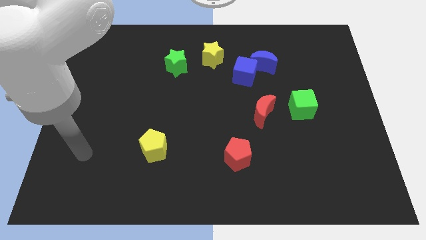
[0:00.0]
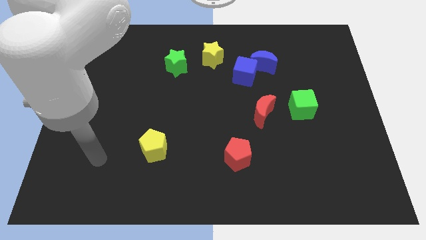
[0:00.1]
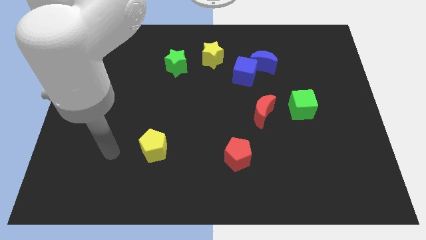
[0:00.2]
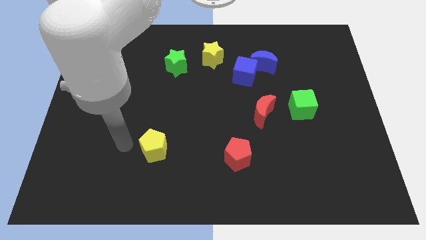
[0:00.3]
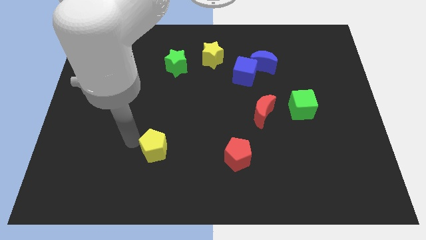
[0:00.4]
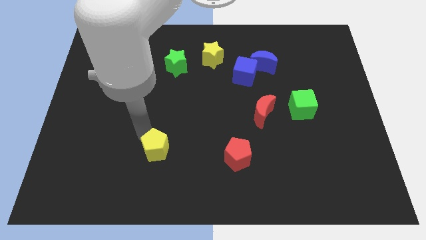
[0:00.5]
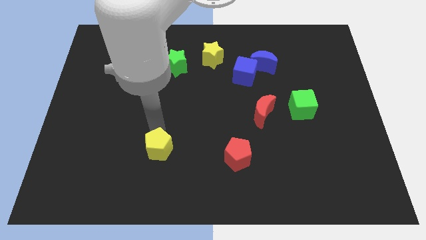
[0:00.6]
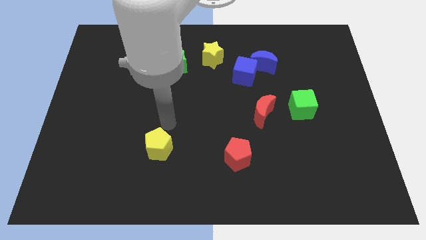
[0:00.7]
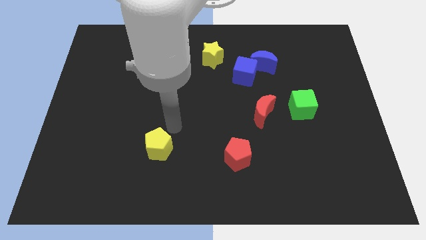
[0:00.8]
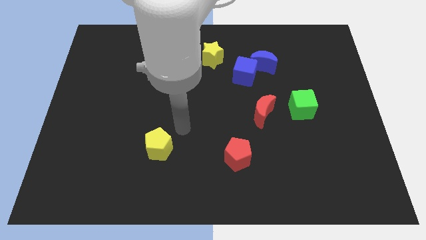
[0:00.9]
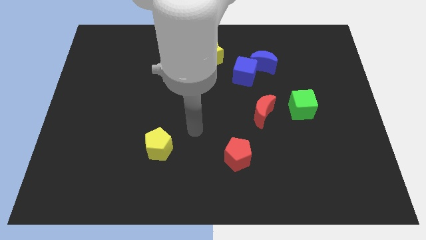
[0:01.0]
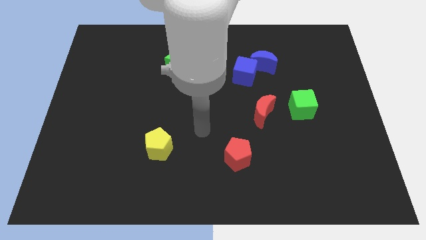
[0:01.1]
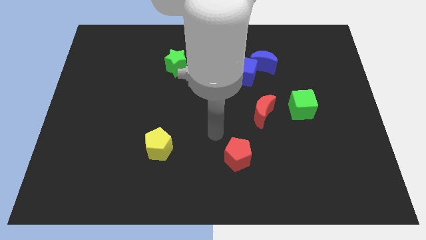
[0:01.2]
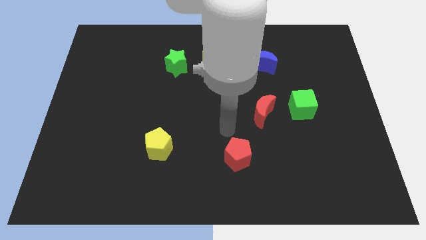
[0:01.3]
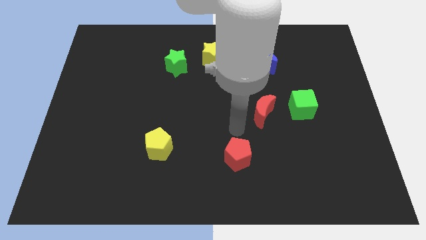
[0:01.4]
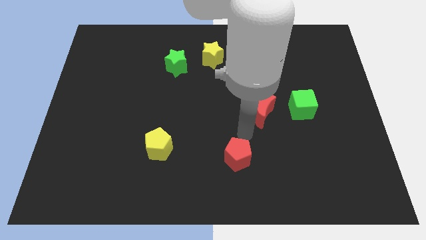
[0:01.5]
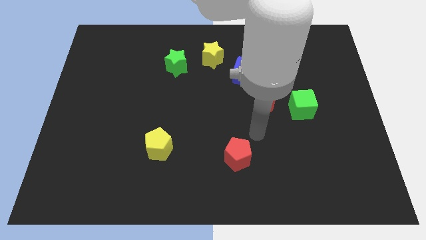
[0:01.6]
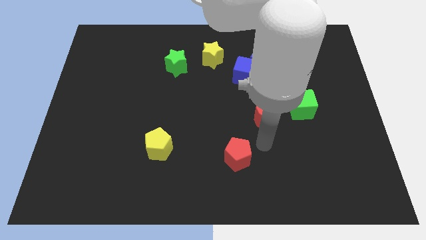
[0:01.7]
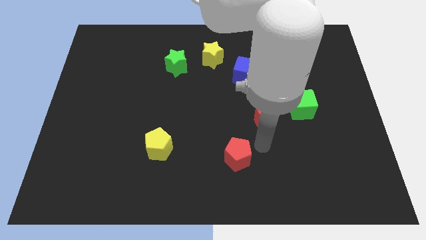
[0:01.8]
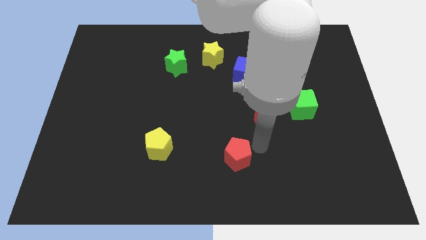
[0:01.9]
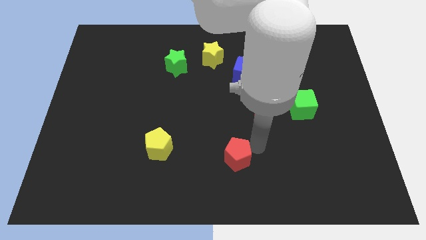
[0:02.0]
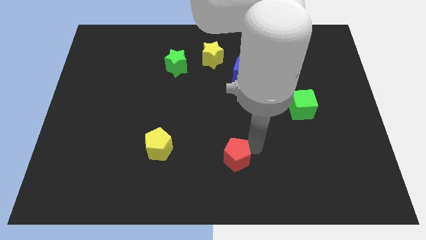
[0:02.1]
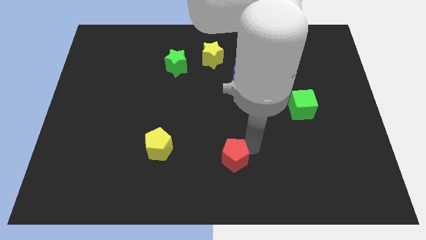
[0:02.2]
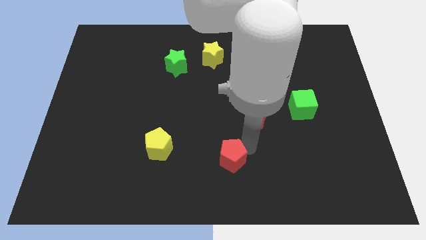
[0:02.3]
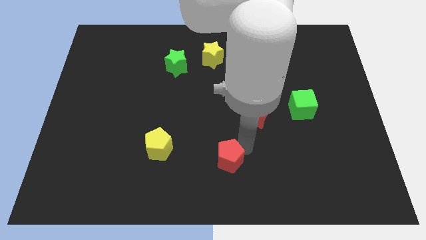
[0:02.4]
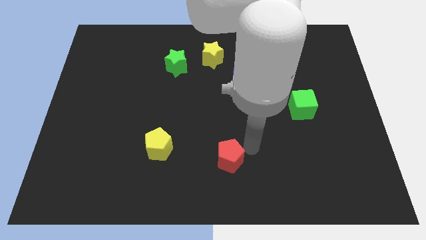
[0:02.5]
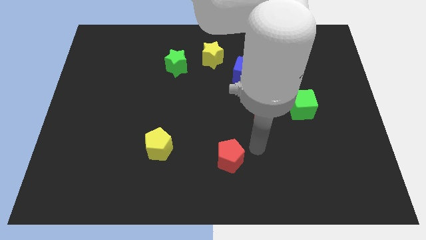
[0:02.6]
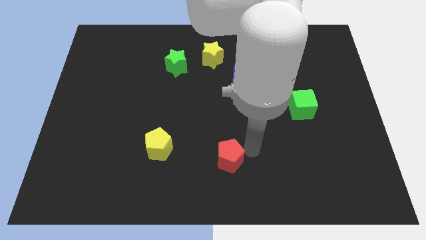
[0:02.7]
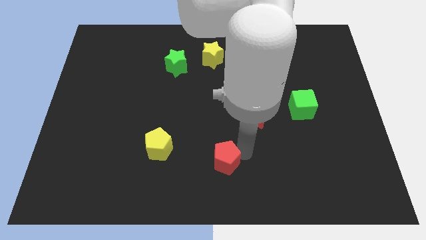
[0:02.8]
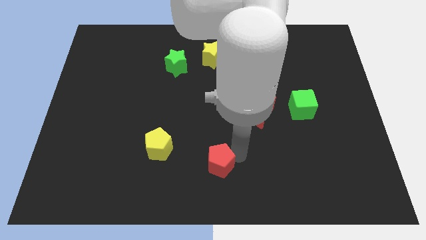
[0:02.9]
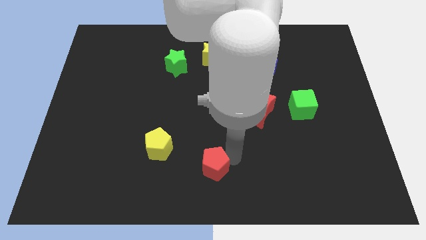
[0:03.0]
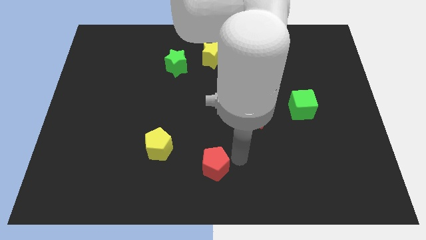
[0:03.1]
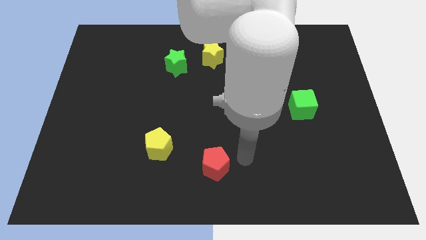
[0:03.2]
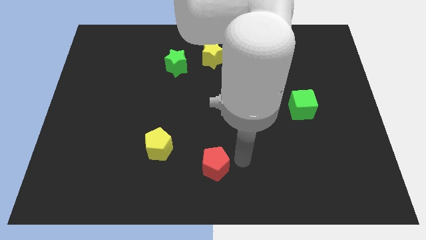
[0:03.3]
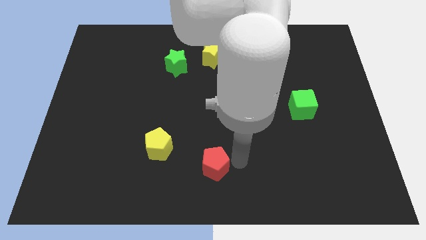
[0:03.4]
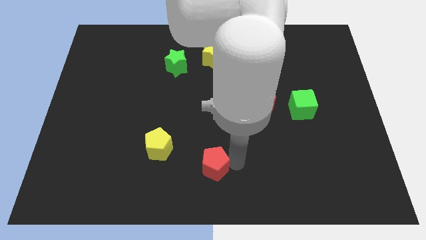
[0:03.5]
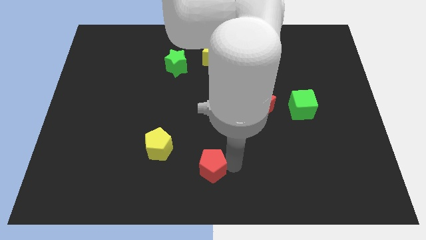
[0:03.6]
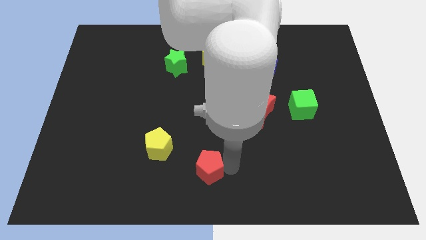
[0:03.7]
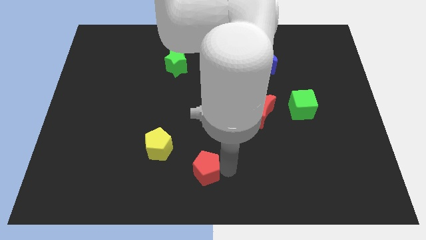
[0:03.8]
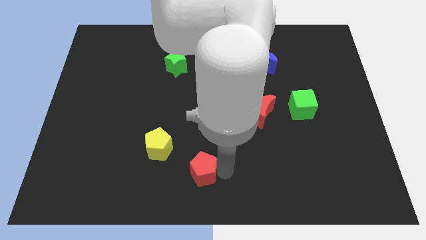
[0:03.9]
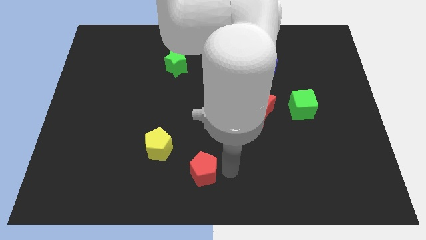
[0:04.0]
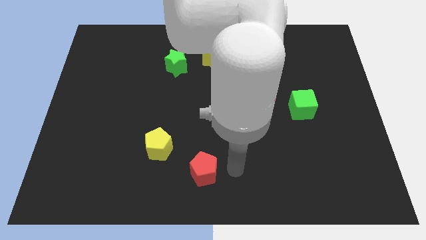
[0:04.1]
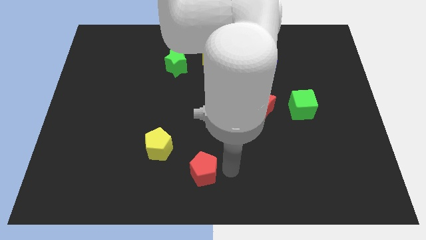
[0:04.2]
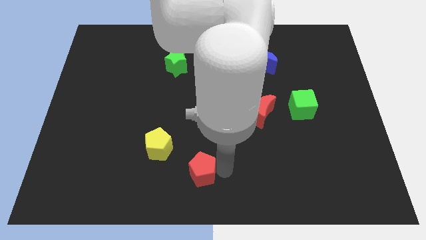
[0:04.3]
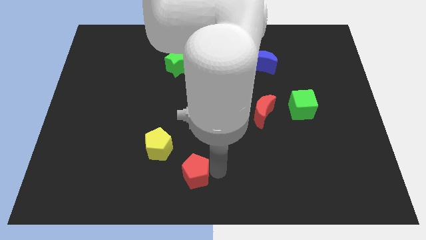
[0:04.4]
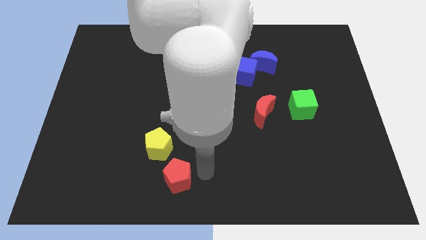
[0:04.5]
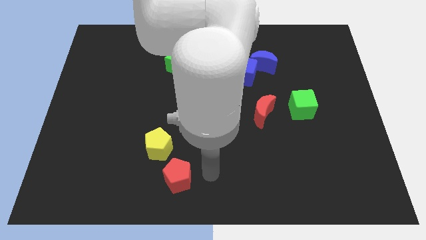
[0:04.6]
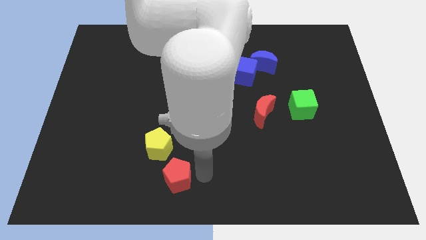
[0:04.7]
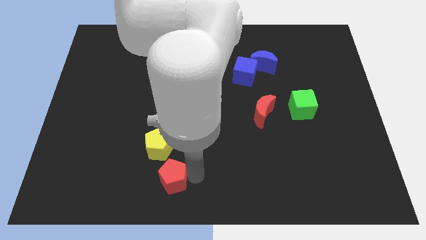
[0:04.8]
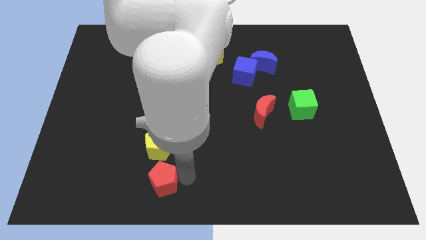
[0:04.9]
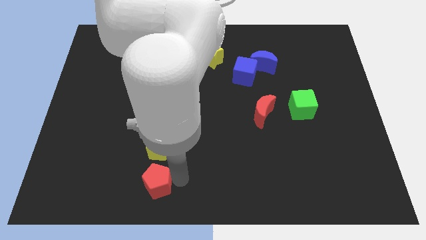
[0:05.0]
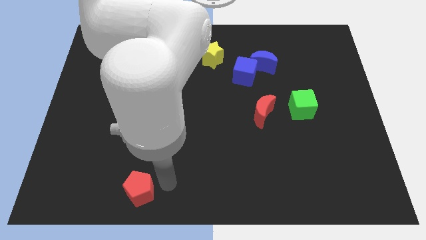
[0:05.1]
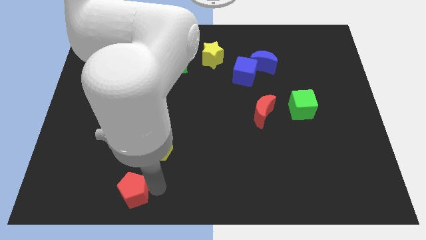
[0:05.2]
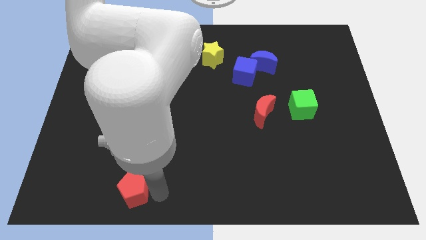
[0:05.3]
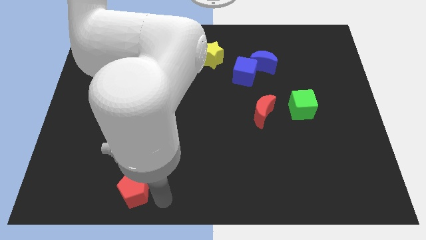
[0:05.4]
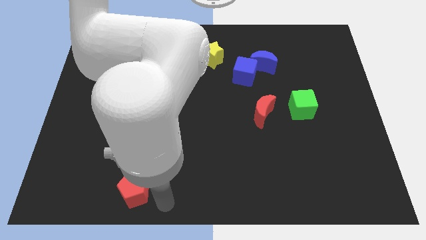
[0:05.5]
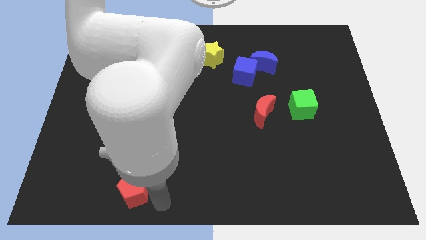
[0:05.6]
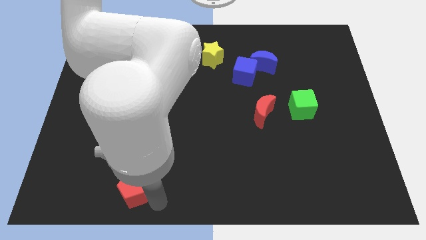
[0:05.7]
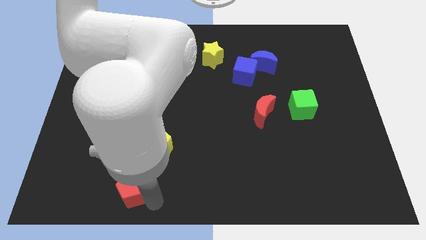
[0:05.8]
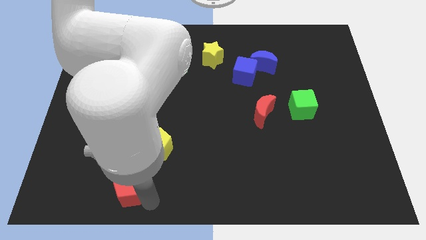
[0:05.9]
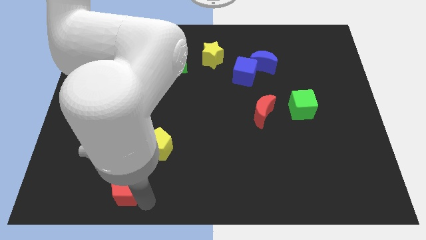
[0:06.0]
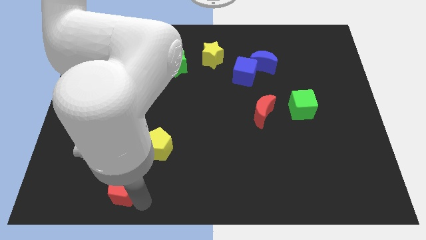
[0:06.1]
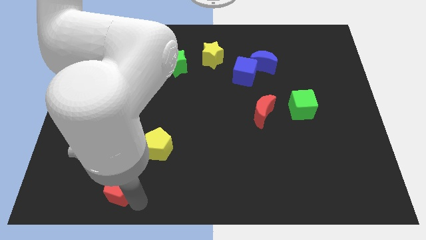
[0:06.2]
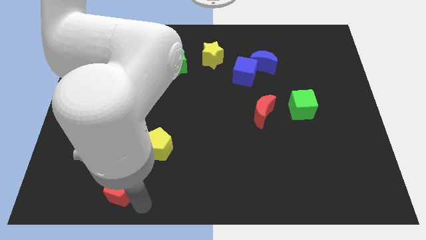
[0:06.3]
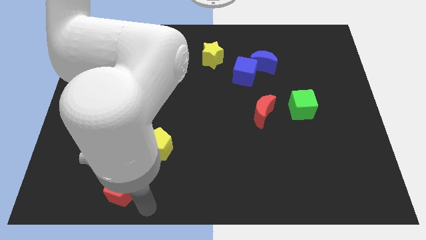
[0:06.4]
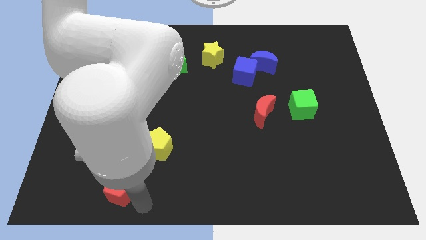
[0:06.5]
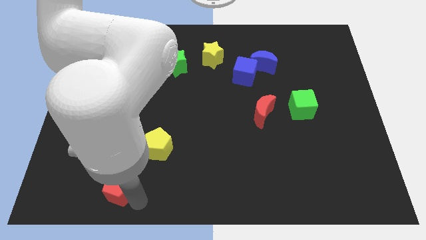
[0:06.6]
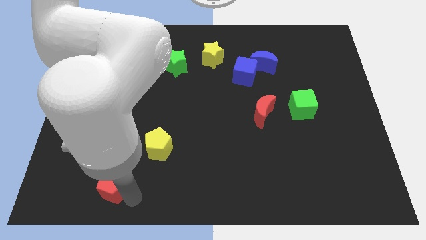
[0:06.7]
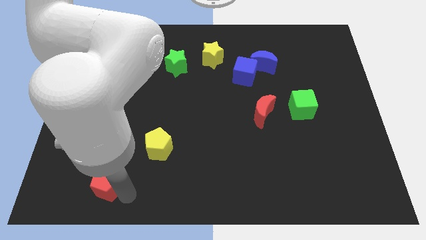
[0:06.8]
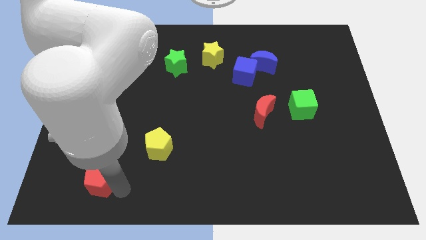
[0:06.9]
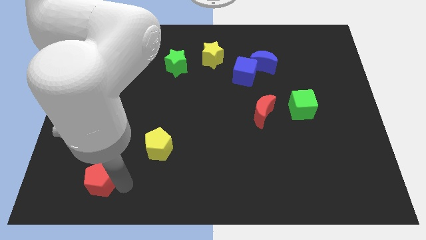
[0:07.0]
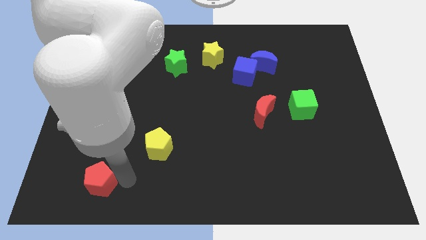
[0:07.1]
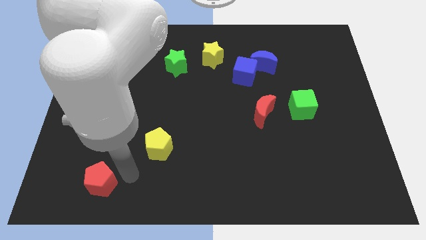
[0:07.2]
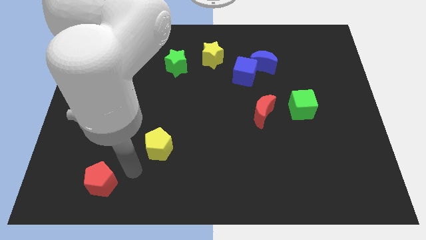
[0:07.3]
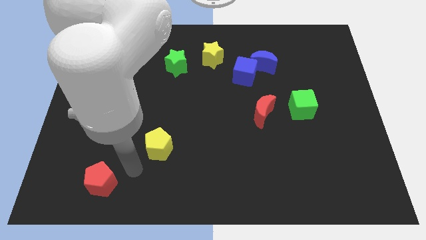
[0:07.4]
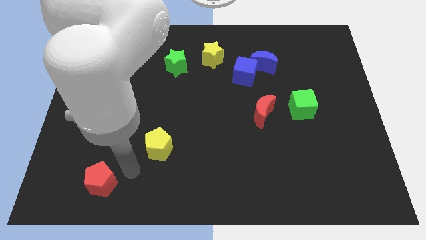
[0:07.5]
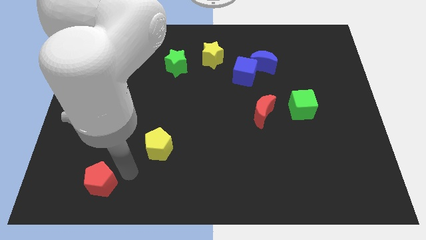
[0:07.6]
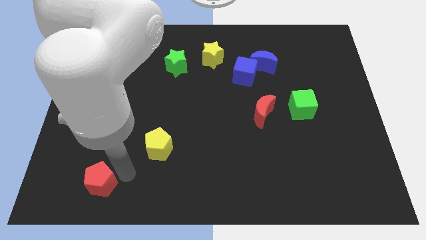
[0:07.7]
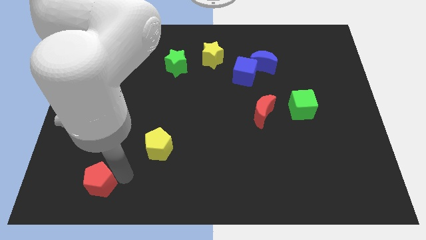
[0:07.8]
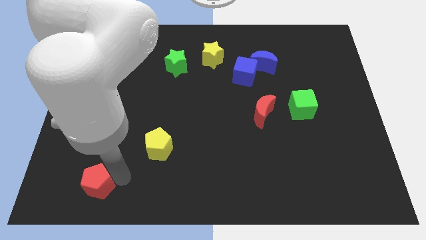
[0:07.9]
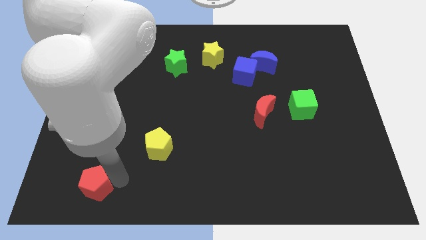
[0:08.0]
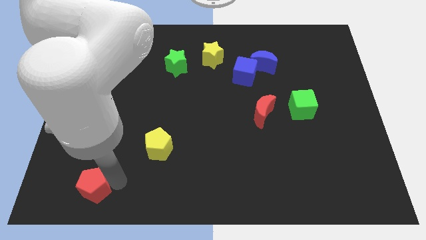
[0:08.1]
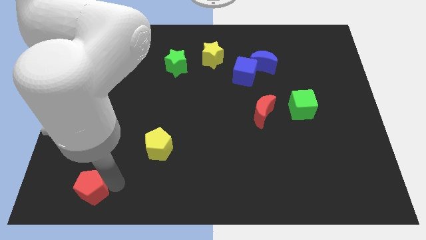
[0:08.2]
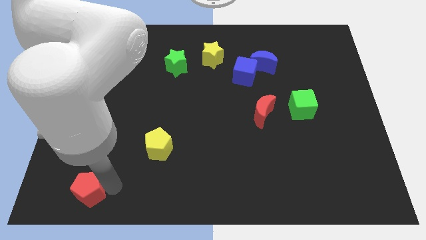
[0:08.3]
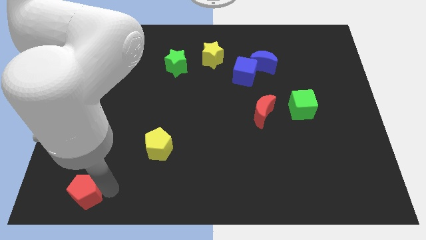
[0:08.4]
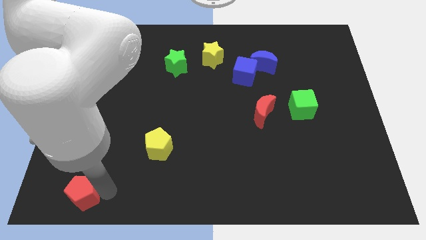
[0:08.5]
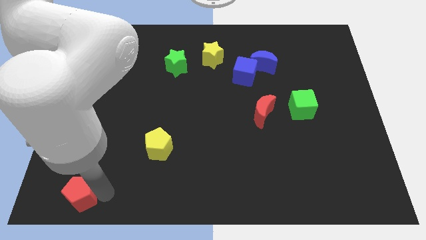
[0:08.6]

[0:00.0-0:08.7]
push the red pentagon to the bottom left of the board
